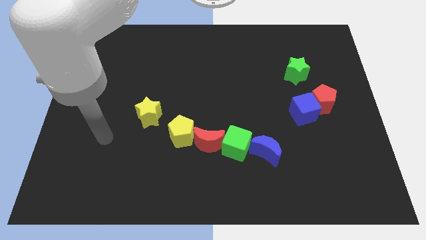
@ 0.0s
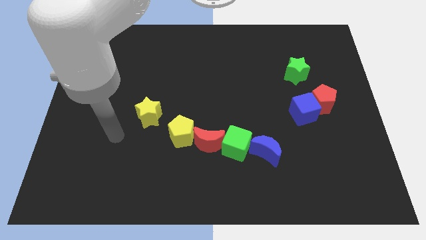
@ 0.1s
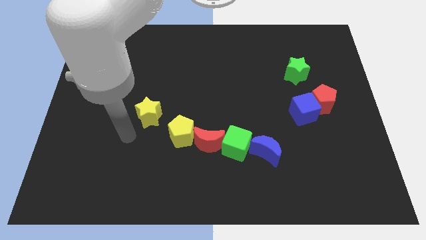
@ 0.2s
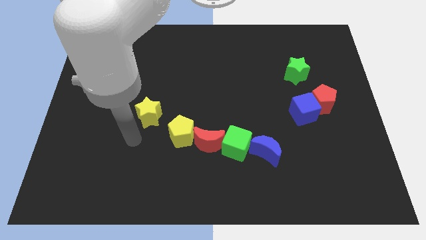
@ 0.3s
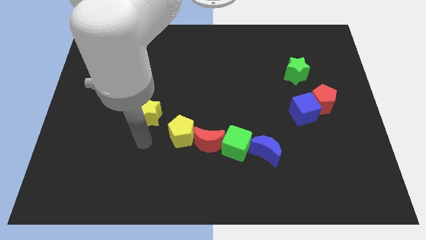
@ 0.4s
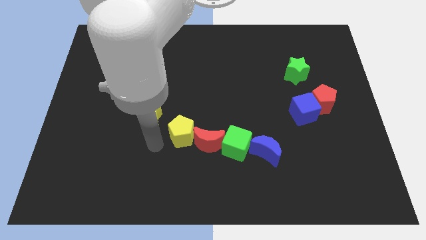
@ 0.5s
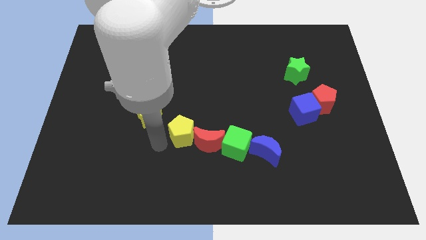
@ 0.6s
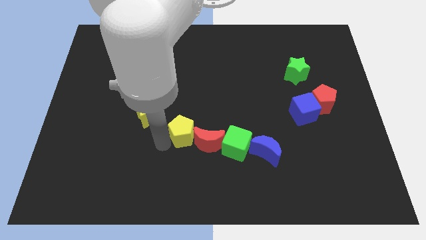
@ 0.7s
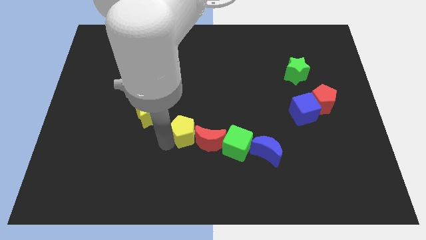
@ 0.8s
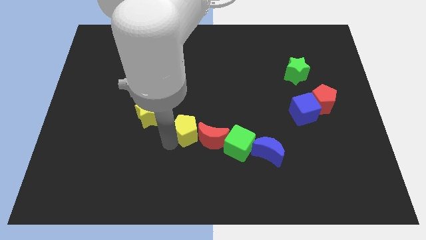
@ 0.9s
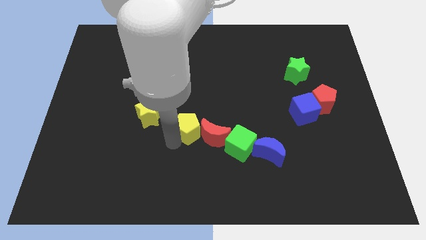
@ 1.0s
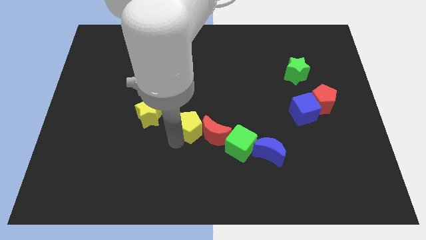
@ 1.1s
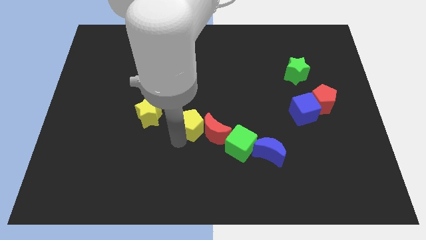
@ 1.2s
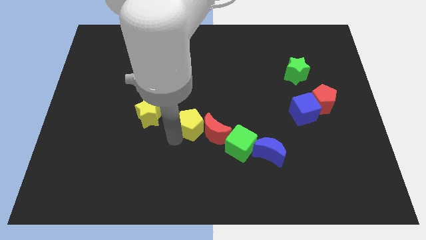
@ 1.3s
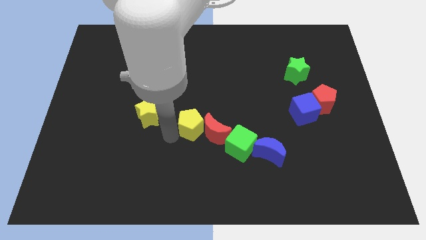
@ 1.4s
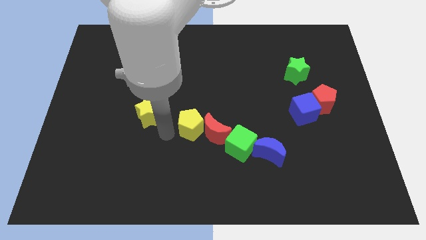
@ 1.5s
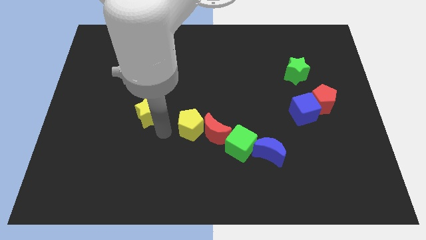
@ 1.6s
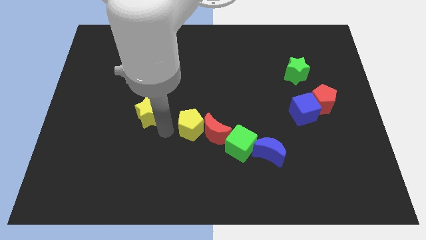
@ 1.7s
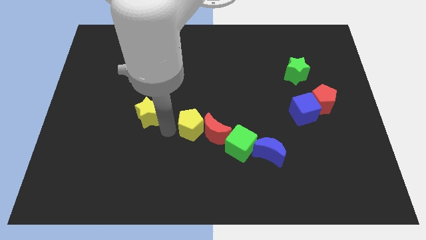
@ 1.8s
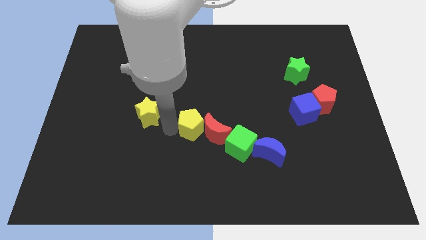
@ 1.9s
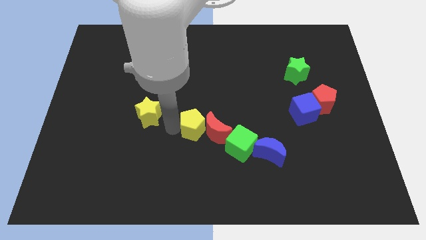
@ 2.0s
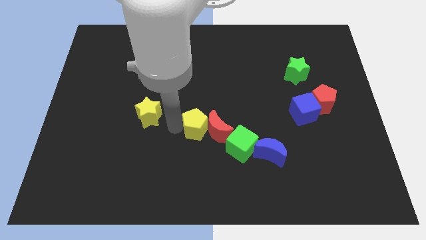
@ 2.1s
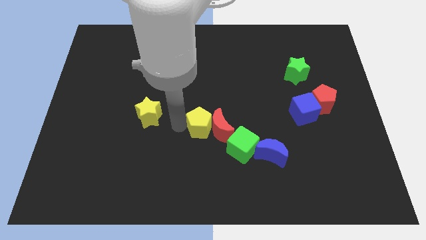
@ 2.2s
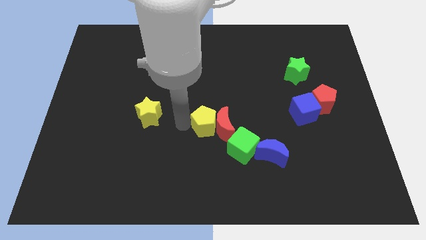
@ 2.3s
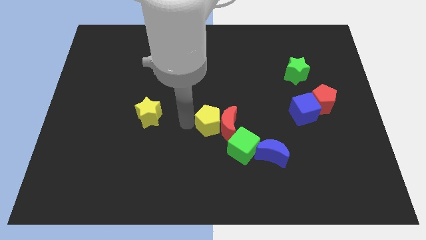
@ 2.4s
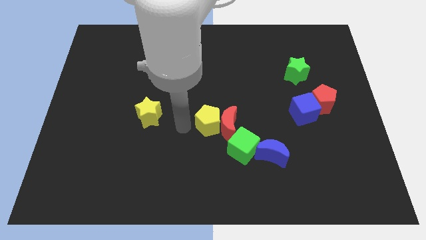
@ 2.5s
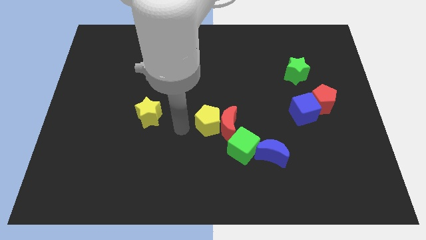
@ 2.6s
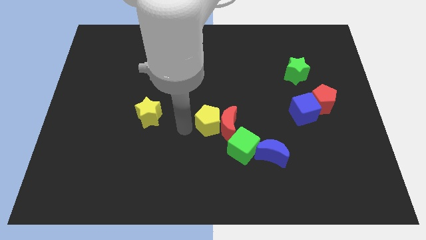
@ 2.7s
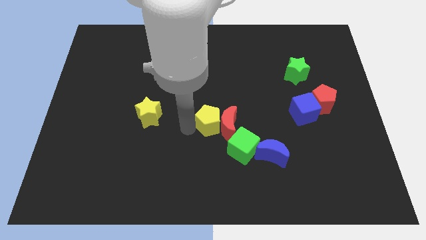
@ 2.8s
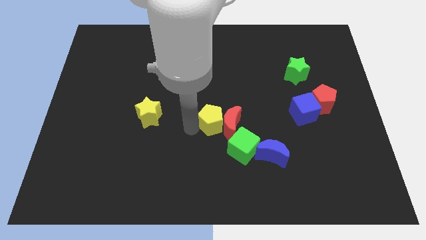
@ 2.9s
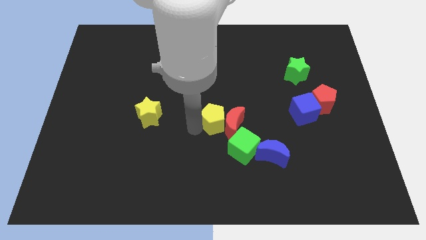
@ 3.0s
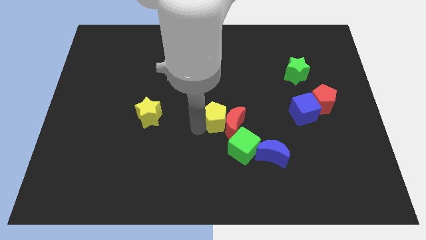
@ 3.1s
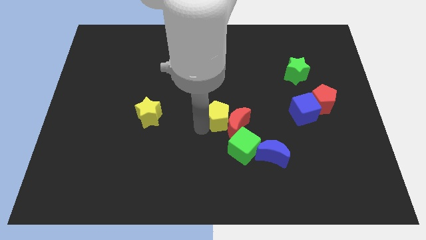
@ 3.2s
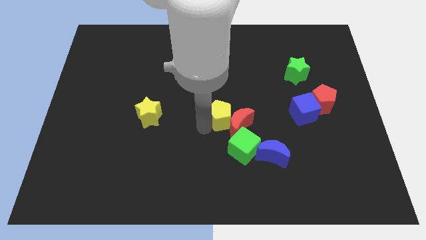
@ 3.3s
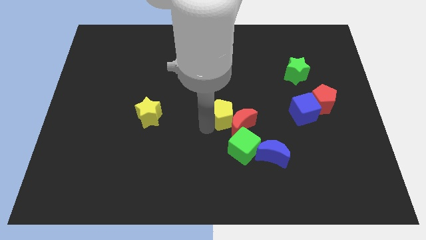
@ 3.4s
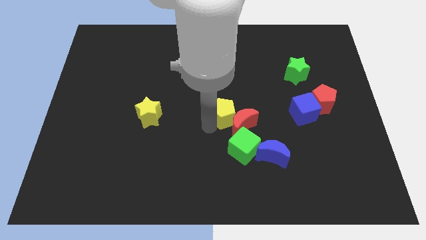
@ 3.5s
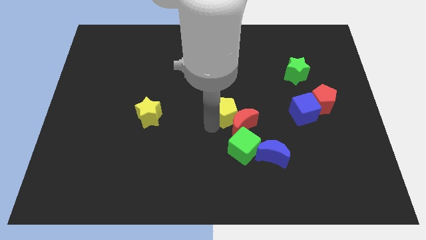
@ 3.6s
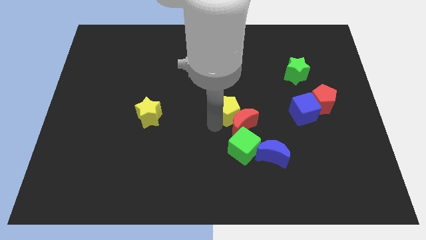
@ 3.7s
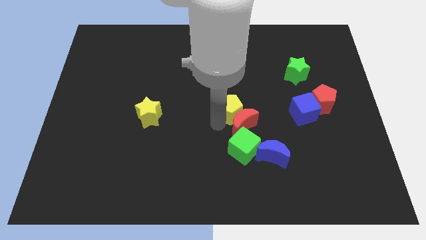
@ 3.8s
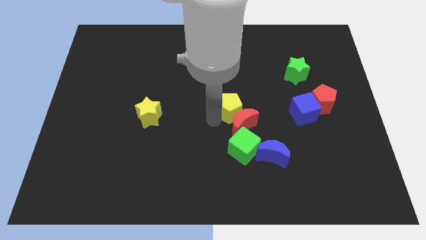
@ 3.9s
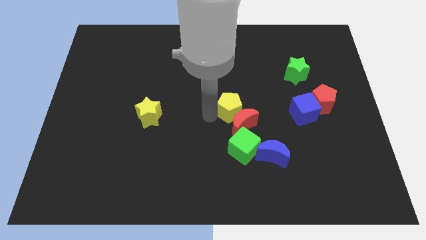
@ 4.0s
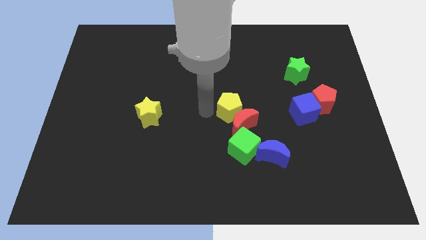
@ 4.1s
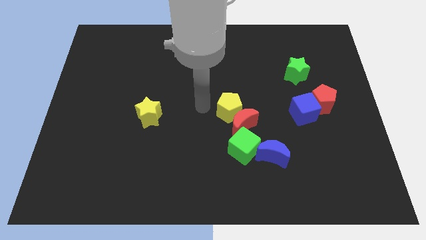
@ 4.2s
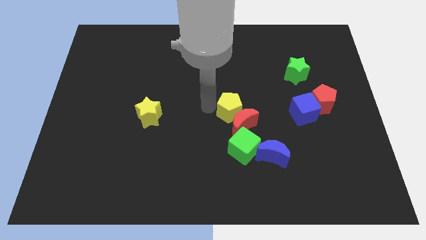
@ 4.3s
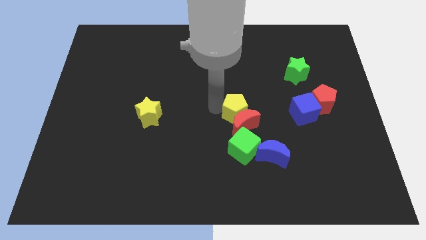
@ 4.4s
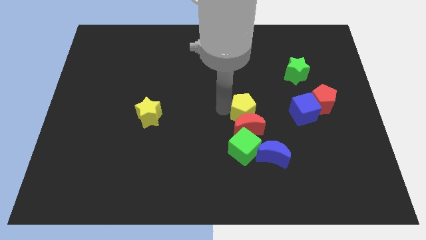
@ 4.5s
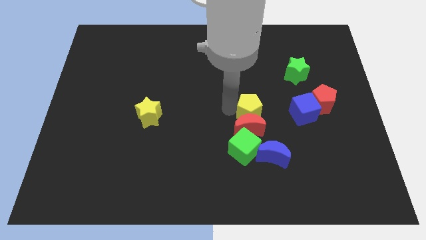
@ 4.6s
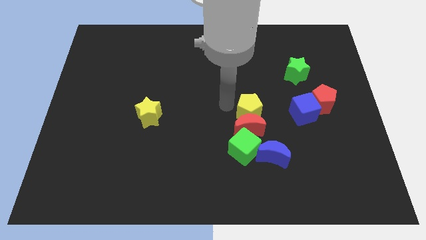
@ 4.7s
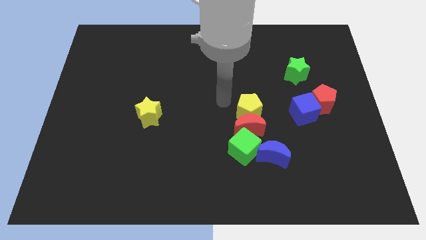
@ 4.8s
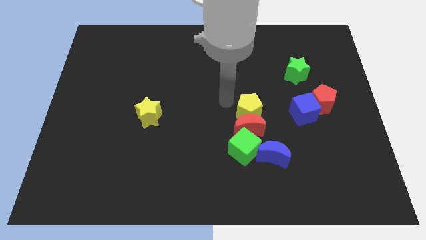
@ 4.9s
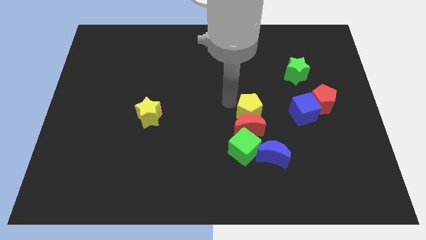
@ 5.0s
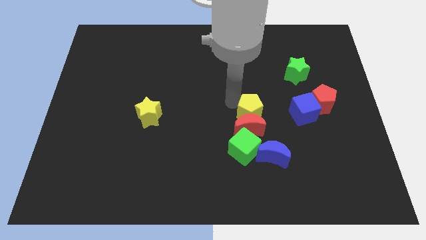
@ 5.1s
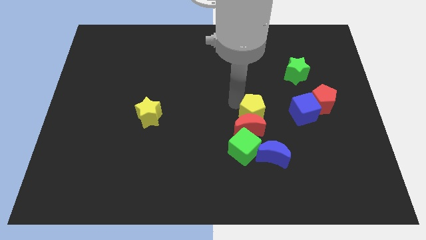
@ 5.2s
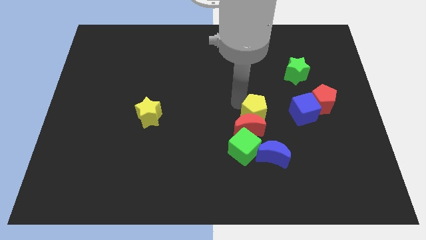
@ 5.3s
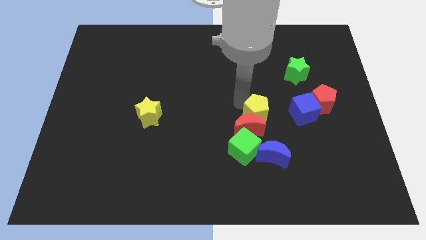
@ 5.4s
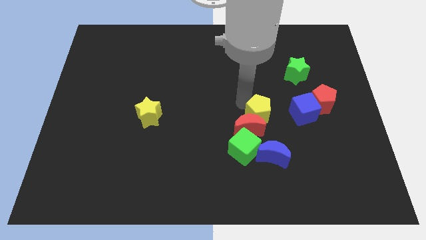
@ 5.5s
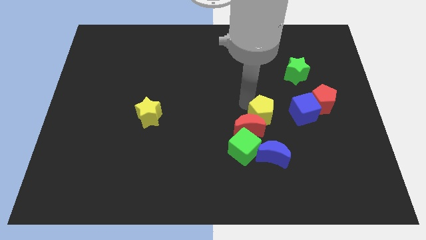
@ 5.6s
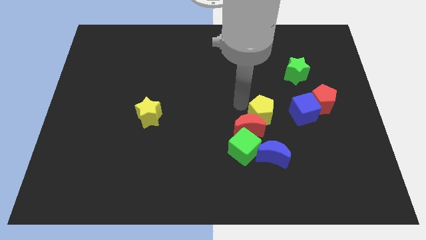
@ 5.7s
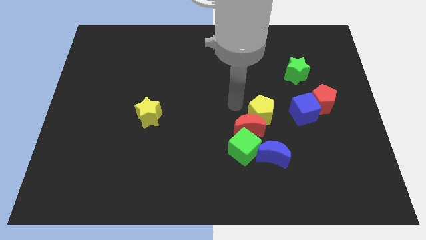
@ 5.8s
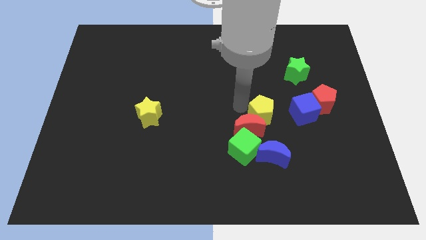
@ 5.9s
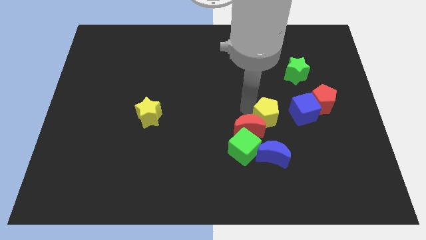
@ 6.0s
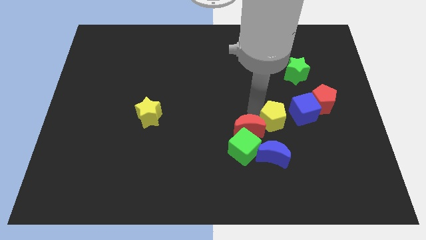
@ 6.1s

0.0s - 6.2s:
move the yellow pentagon to the right

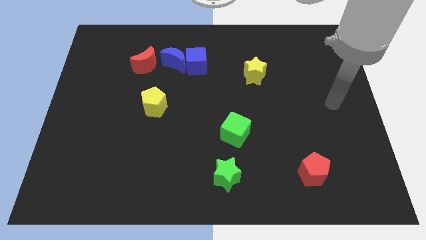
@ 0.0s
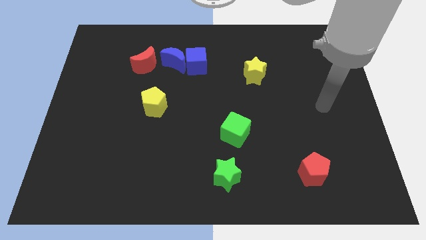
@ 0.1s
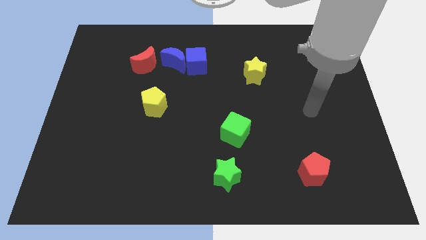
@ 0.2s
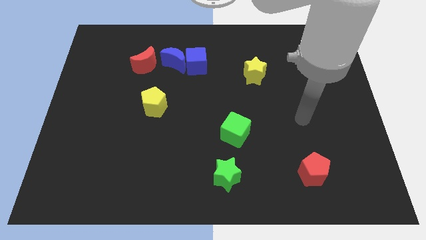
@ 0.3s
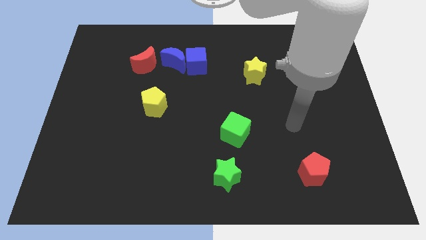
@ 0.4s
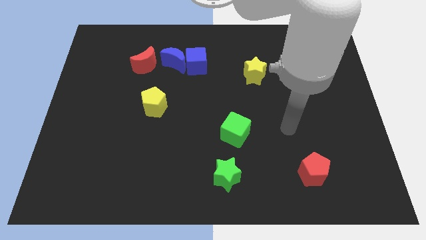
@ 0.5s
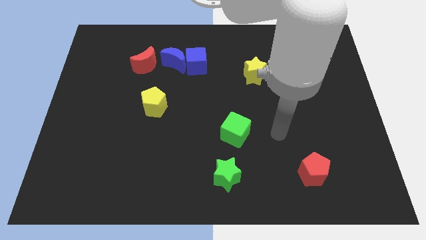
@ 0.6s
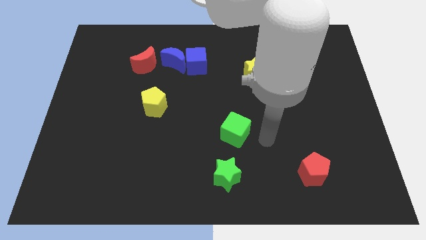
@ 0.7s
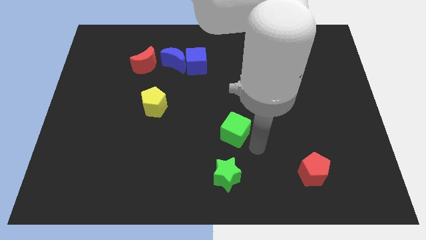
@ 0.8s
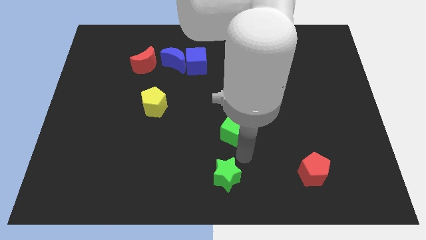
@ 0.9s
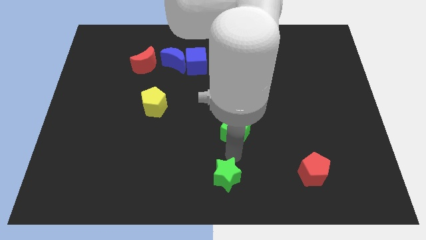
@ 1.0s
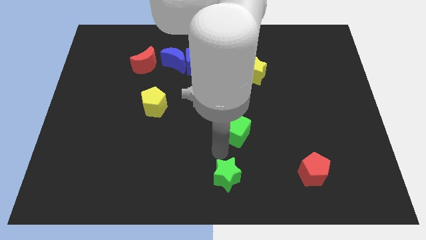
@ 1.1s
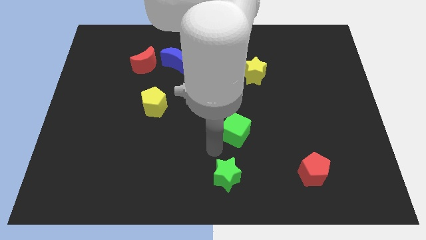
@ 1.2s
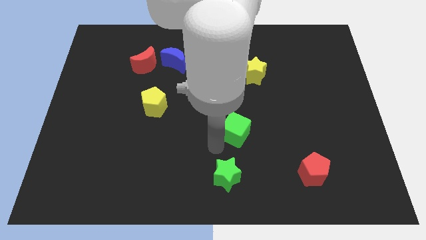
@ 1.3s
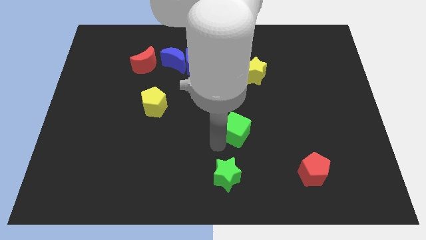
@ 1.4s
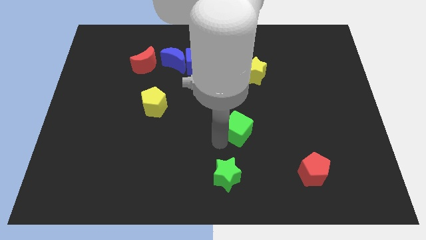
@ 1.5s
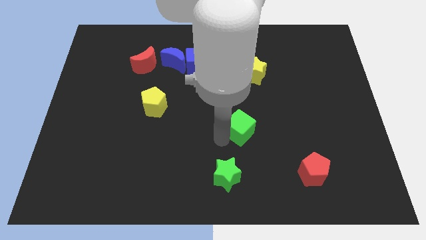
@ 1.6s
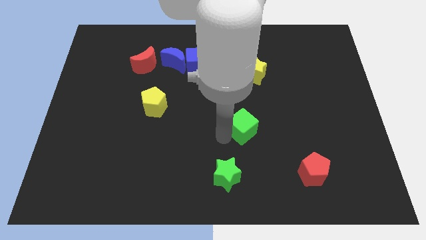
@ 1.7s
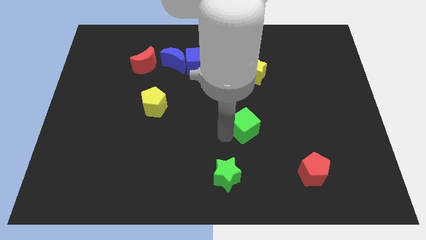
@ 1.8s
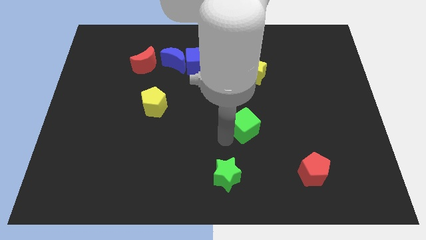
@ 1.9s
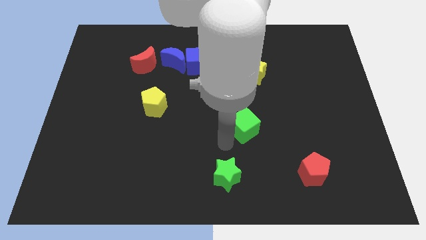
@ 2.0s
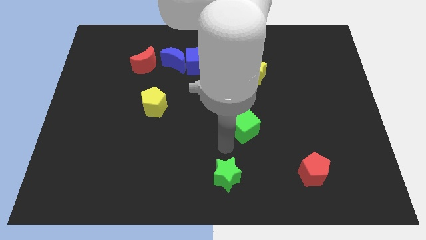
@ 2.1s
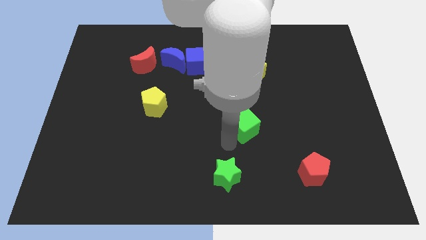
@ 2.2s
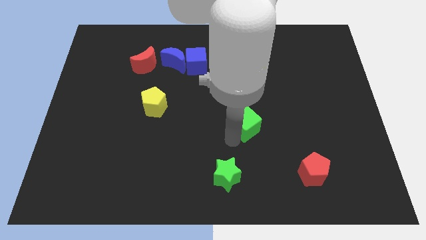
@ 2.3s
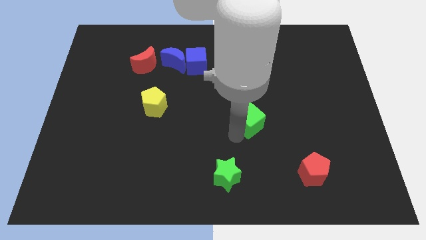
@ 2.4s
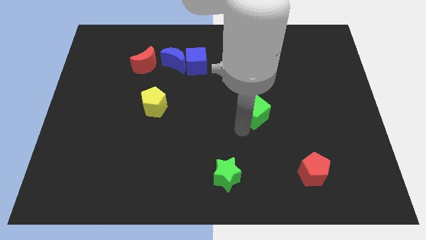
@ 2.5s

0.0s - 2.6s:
slightly push the green cube upwards and to the right
